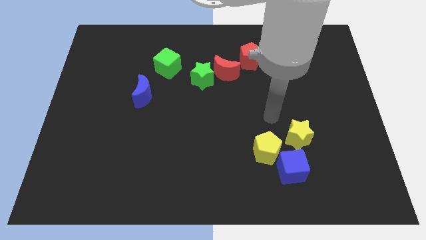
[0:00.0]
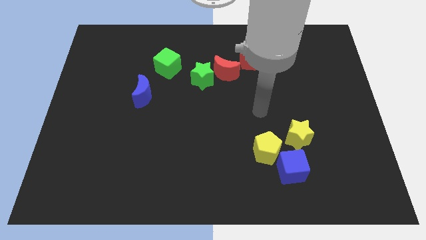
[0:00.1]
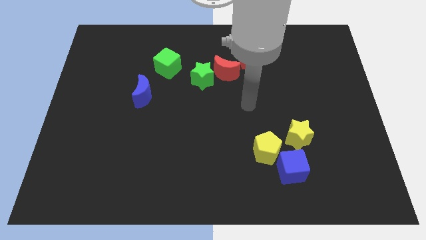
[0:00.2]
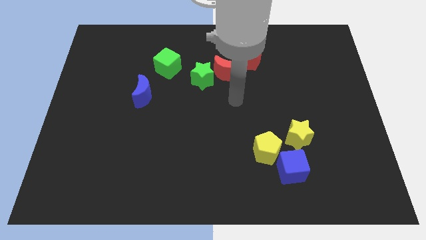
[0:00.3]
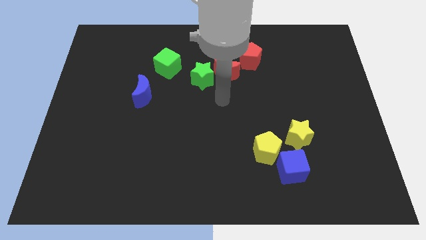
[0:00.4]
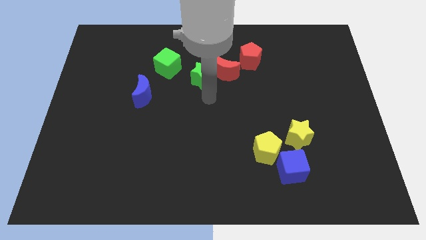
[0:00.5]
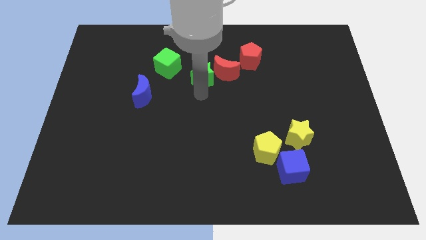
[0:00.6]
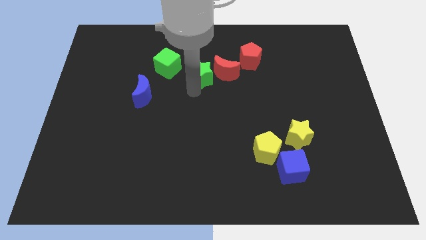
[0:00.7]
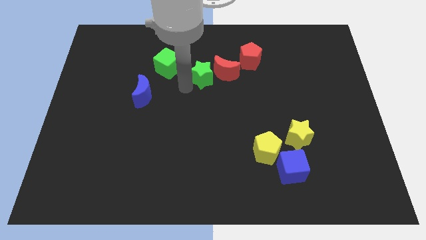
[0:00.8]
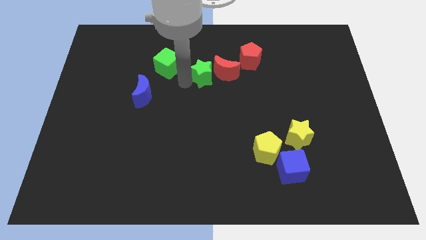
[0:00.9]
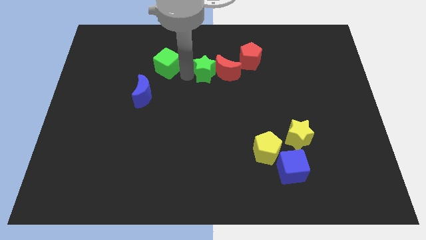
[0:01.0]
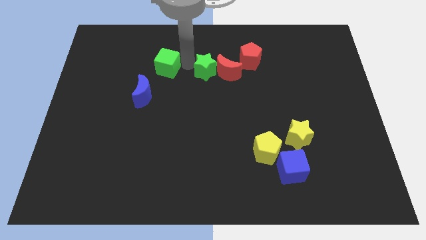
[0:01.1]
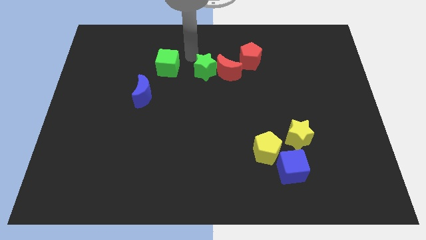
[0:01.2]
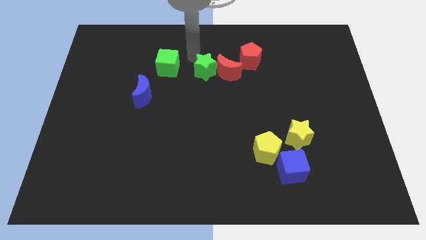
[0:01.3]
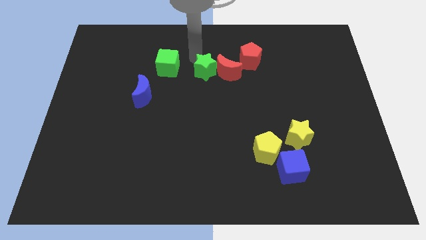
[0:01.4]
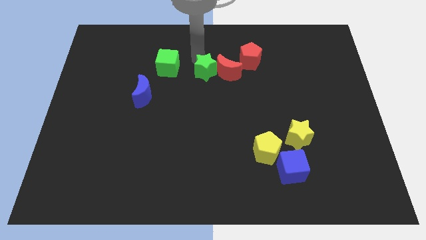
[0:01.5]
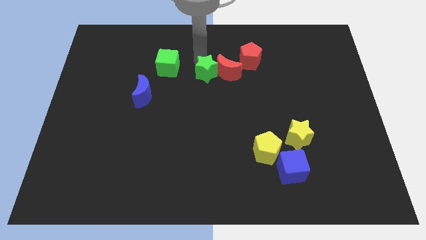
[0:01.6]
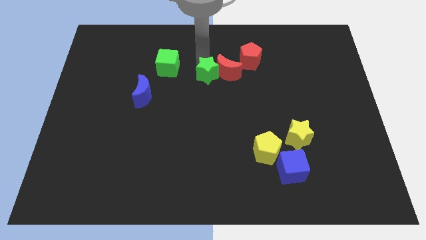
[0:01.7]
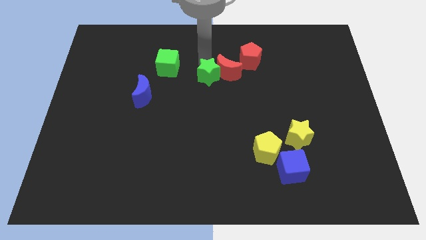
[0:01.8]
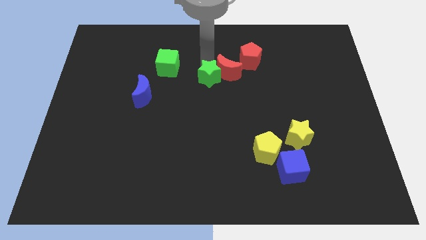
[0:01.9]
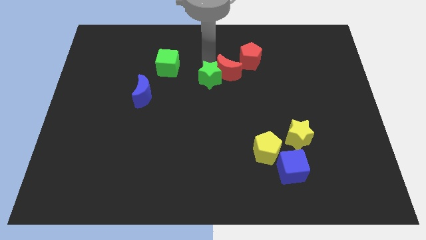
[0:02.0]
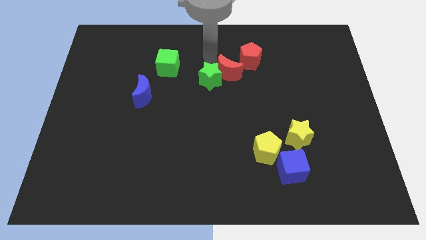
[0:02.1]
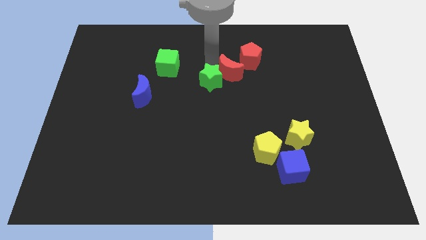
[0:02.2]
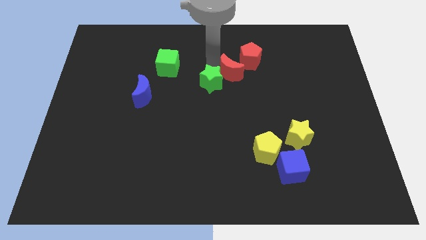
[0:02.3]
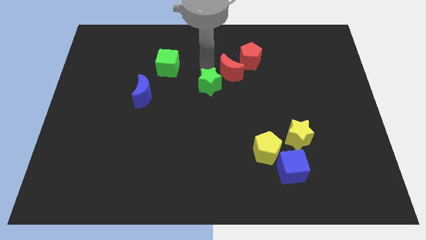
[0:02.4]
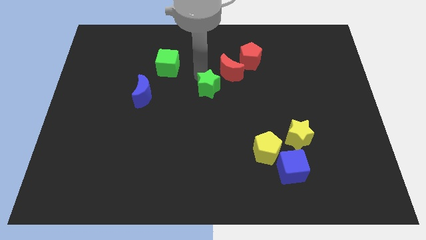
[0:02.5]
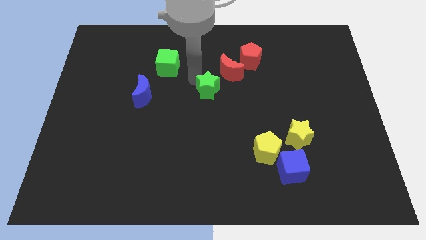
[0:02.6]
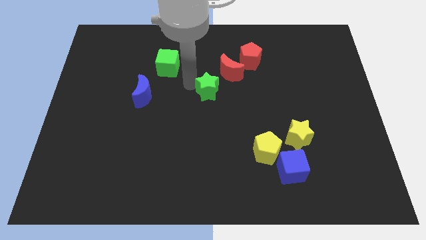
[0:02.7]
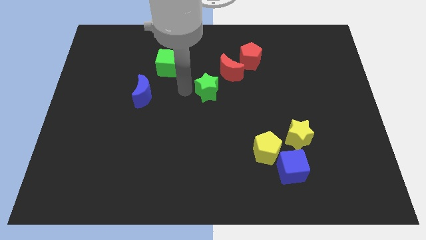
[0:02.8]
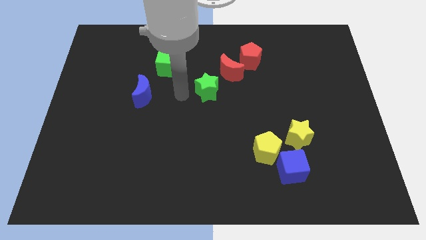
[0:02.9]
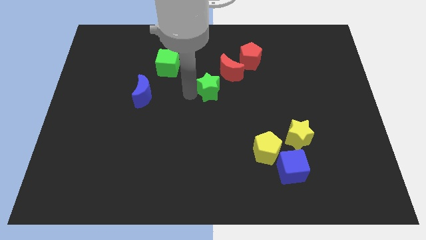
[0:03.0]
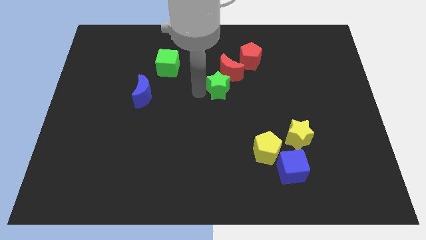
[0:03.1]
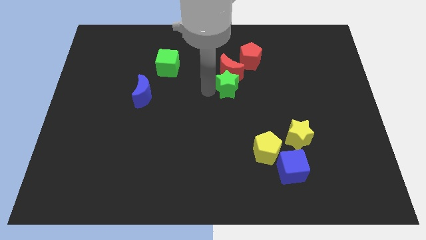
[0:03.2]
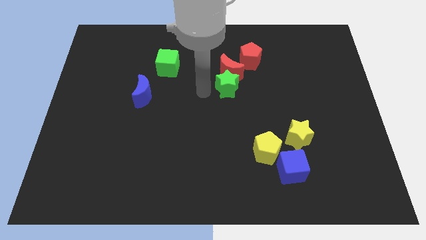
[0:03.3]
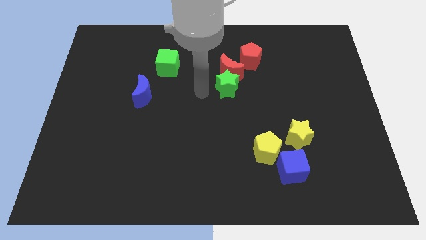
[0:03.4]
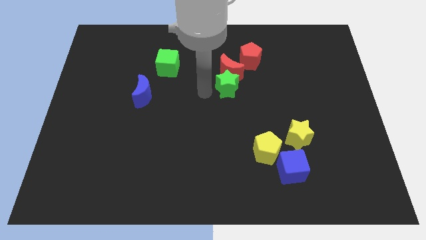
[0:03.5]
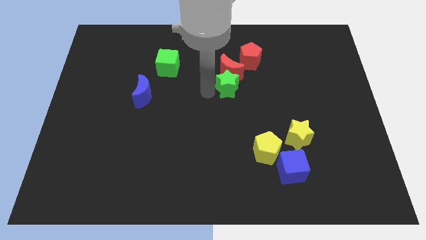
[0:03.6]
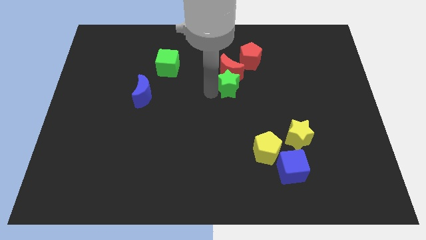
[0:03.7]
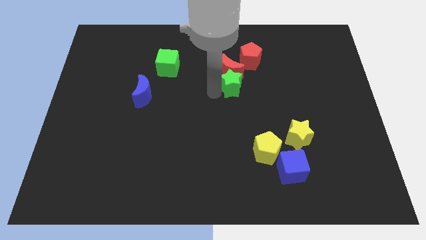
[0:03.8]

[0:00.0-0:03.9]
push the green star a bit right

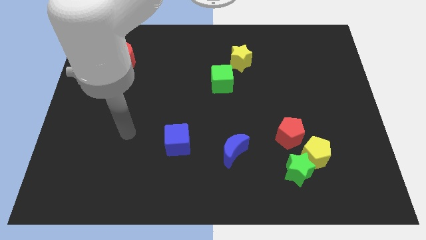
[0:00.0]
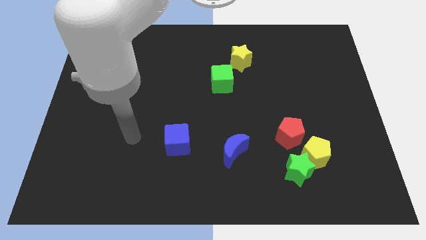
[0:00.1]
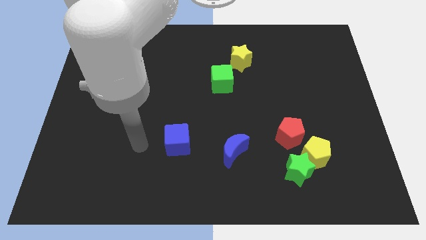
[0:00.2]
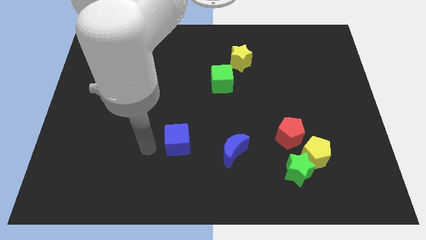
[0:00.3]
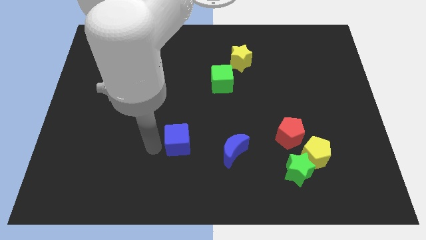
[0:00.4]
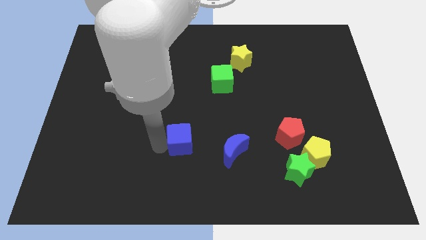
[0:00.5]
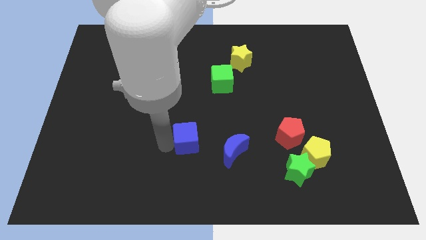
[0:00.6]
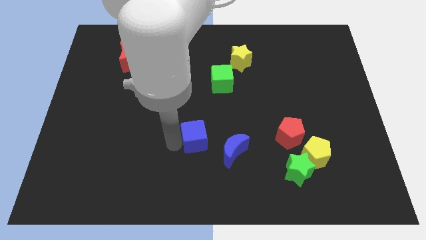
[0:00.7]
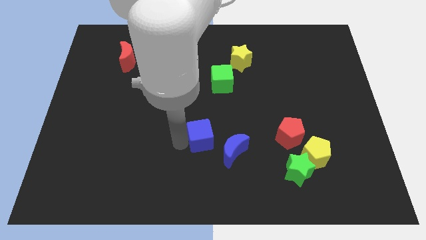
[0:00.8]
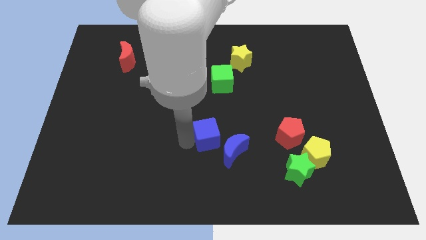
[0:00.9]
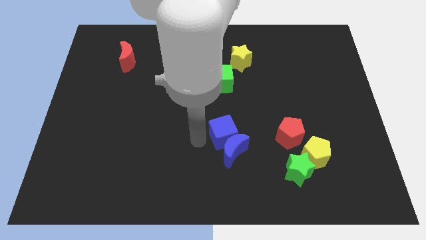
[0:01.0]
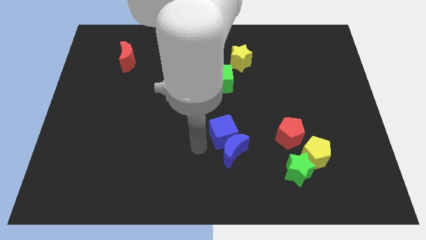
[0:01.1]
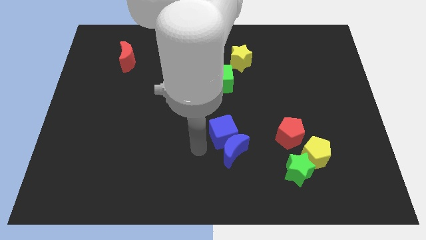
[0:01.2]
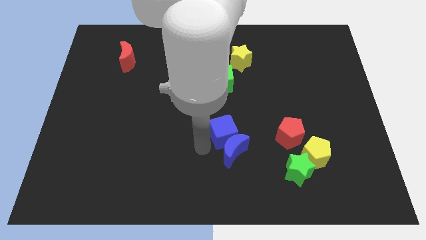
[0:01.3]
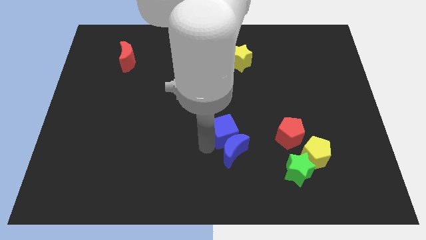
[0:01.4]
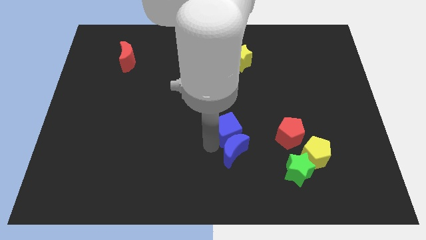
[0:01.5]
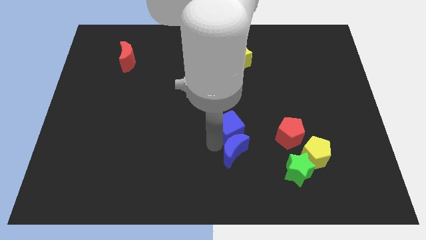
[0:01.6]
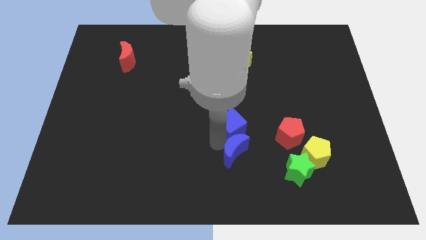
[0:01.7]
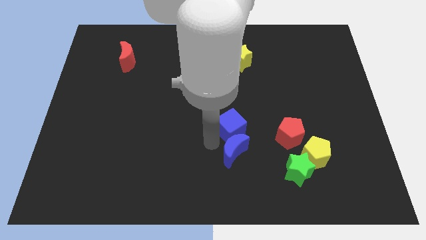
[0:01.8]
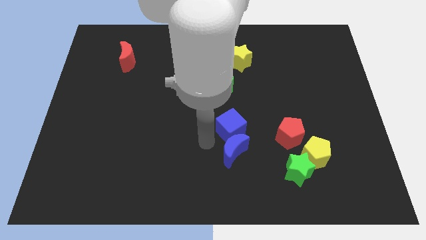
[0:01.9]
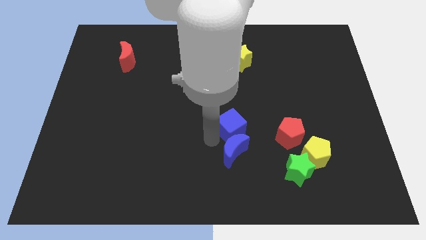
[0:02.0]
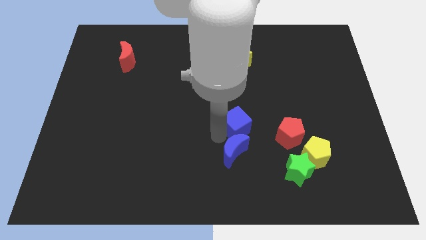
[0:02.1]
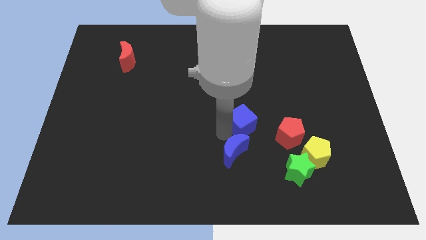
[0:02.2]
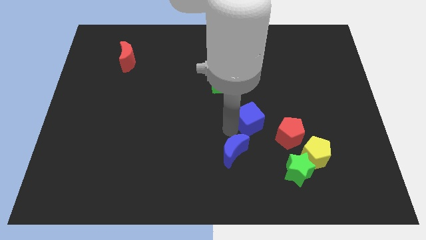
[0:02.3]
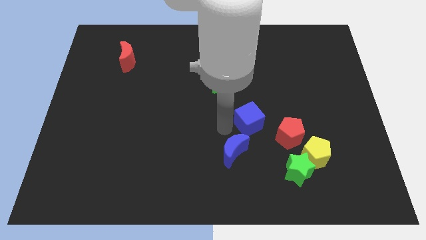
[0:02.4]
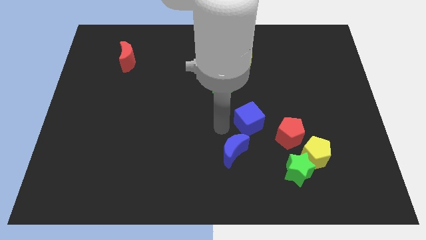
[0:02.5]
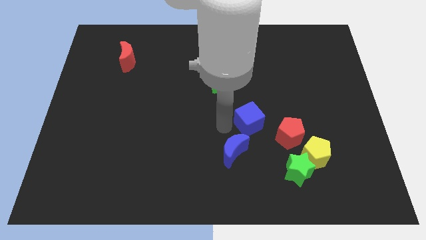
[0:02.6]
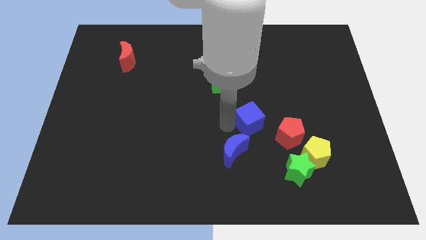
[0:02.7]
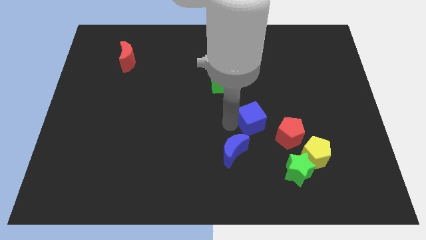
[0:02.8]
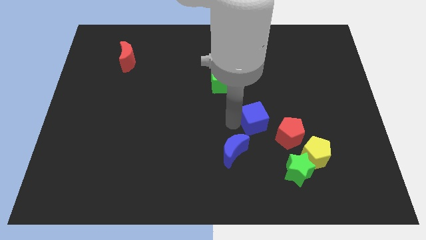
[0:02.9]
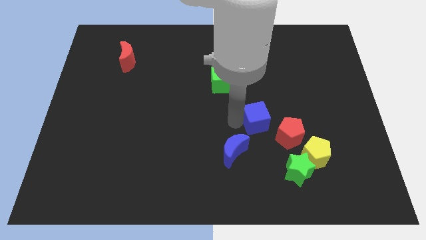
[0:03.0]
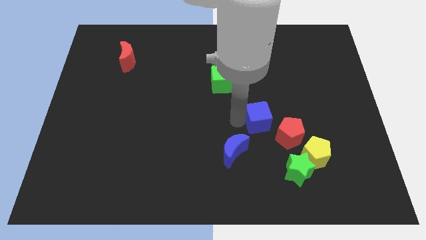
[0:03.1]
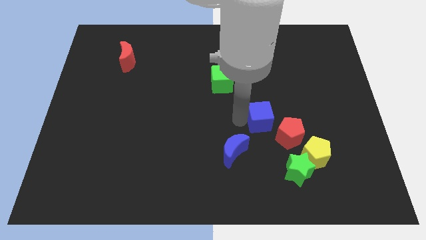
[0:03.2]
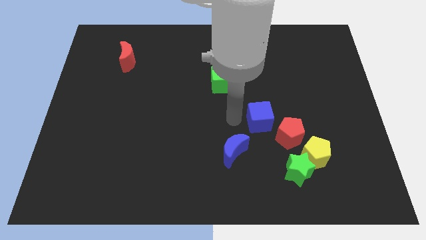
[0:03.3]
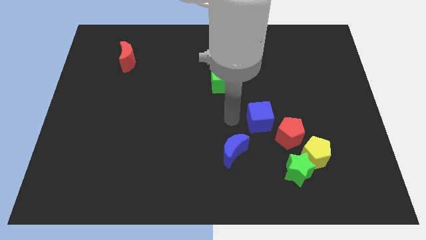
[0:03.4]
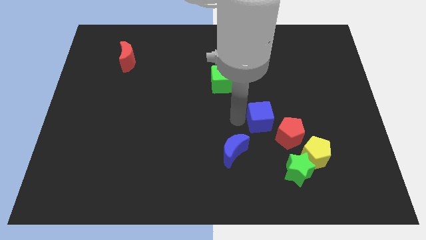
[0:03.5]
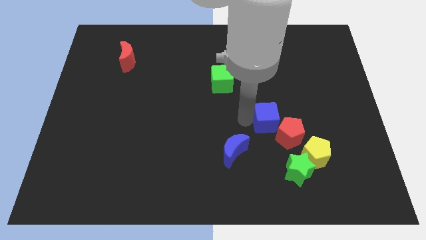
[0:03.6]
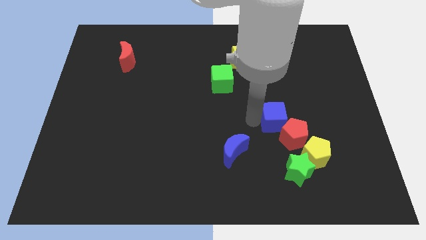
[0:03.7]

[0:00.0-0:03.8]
push the blue cube to the right

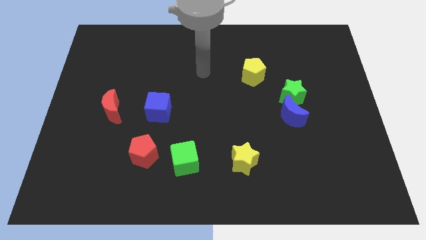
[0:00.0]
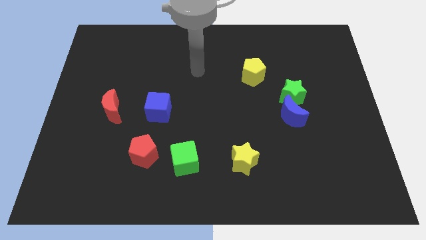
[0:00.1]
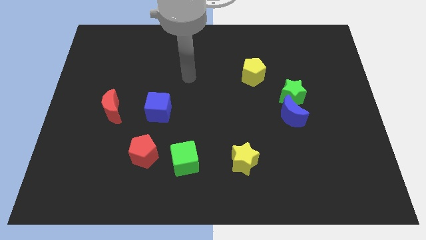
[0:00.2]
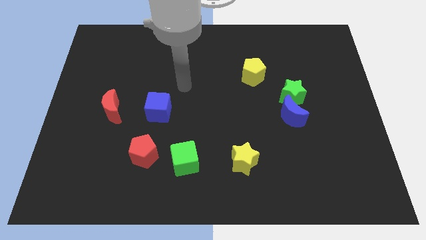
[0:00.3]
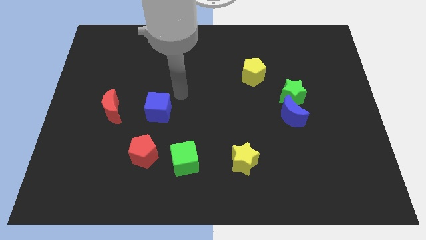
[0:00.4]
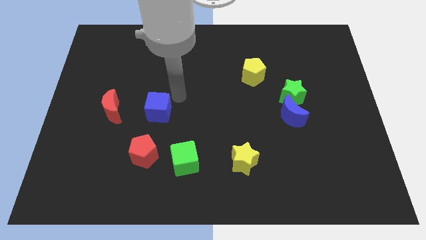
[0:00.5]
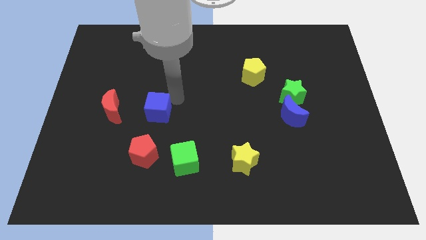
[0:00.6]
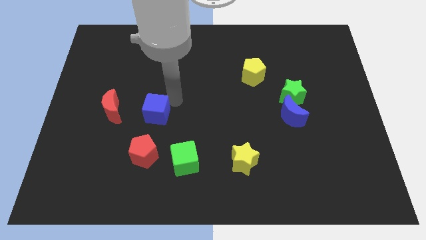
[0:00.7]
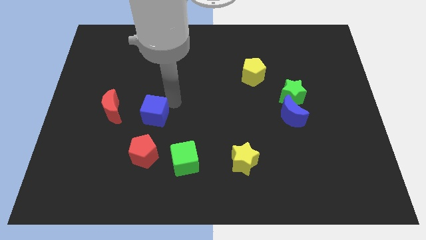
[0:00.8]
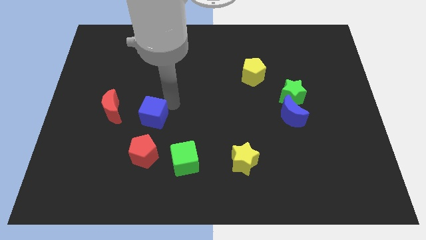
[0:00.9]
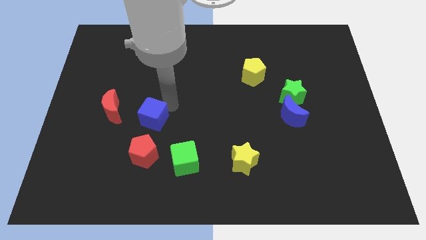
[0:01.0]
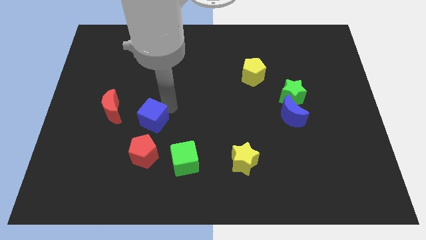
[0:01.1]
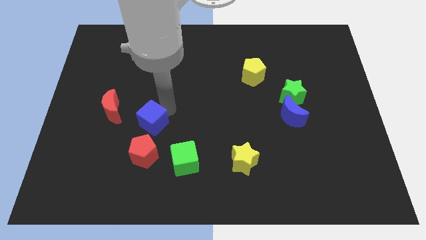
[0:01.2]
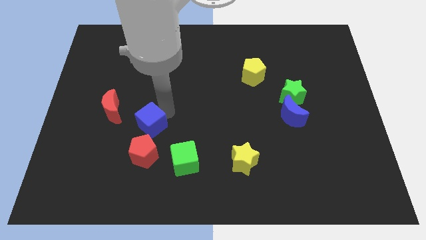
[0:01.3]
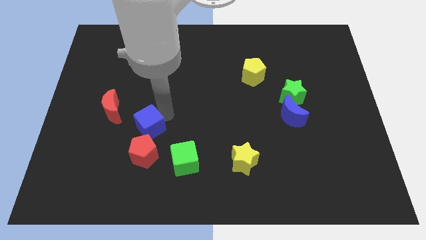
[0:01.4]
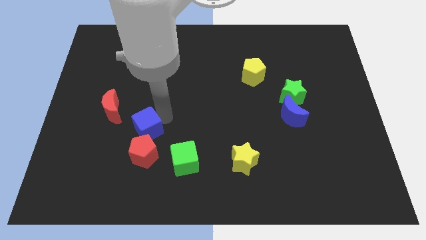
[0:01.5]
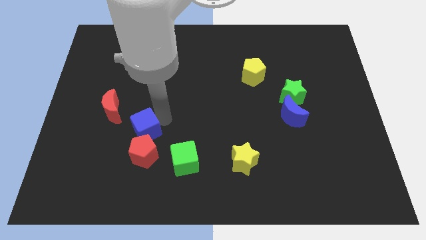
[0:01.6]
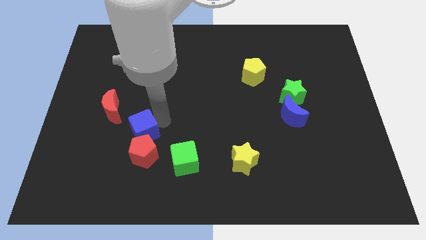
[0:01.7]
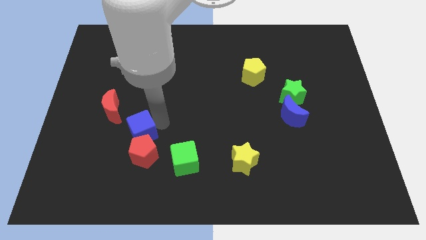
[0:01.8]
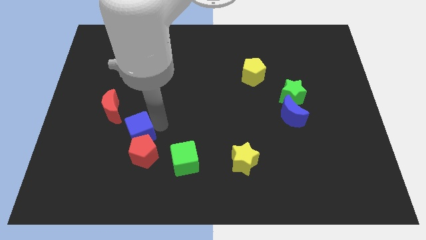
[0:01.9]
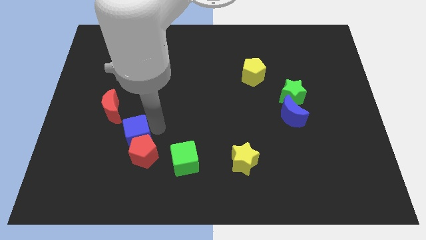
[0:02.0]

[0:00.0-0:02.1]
slightly move the blue cube diagonally downwards and to the left
